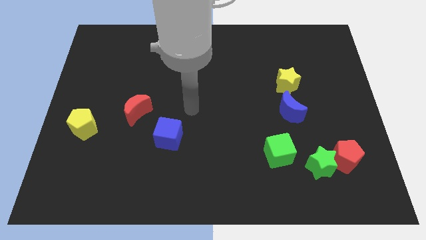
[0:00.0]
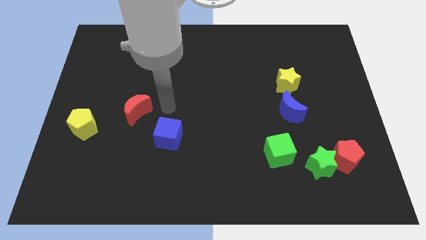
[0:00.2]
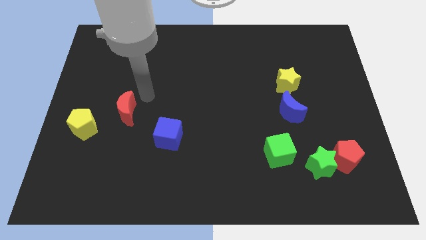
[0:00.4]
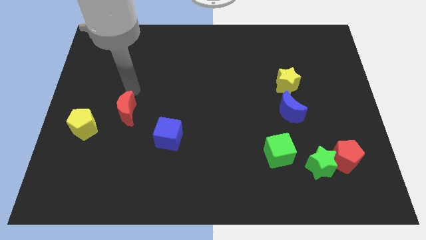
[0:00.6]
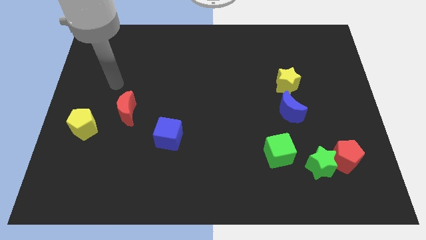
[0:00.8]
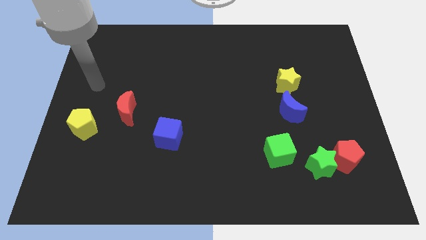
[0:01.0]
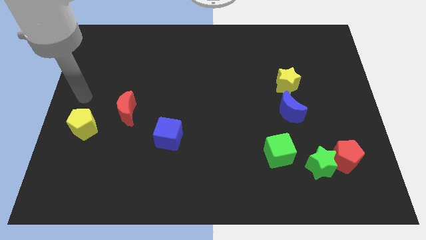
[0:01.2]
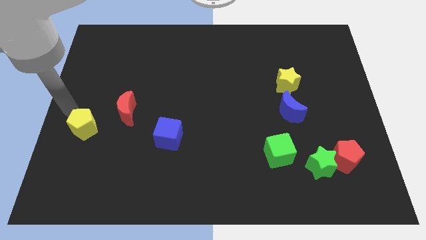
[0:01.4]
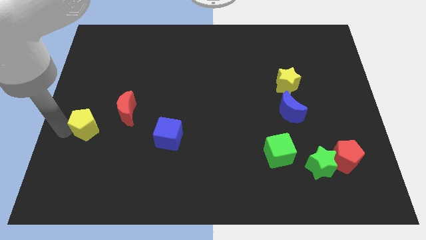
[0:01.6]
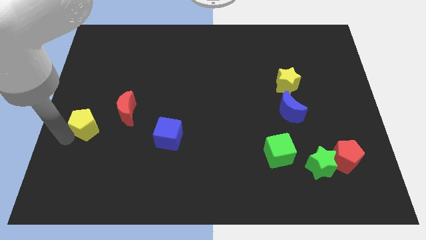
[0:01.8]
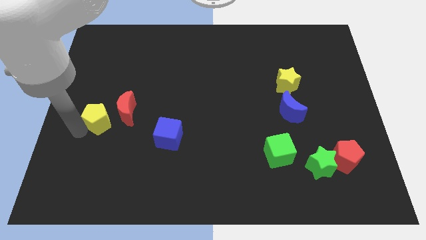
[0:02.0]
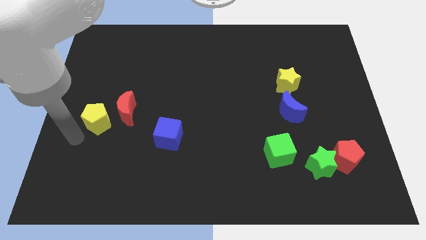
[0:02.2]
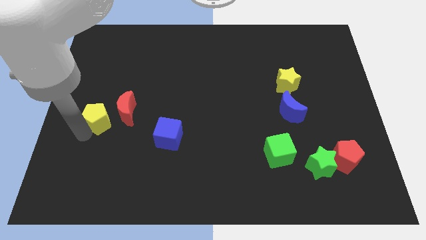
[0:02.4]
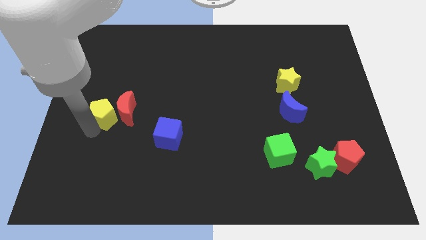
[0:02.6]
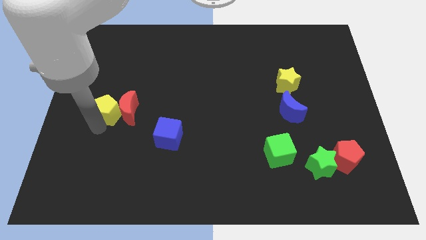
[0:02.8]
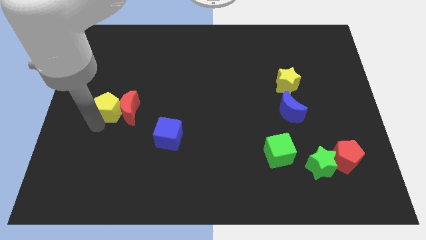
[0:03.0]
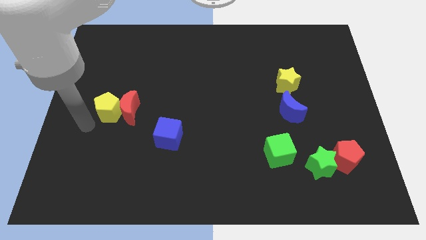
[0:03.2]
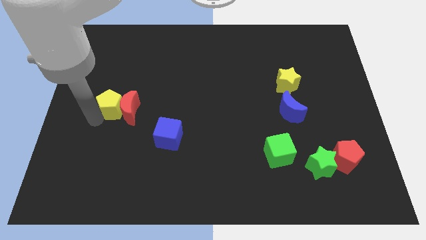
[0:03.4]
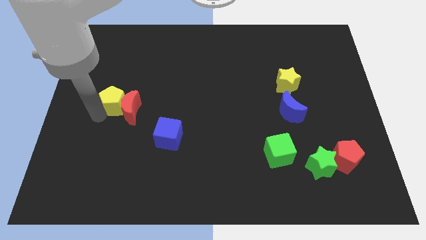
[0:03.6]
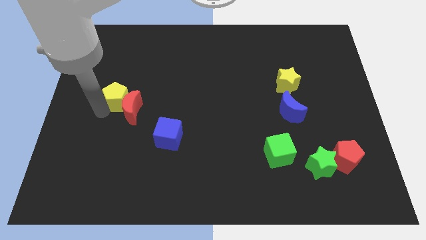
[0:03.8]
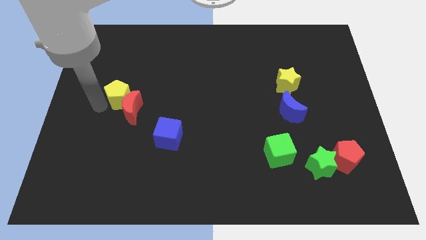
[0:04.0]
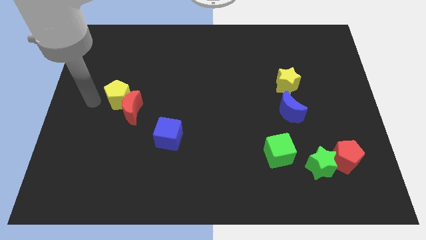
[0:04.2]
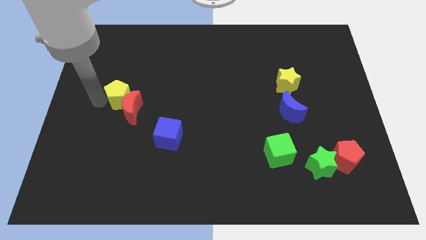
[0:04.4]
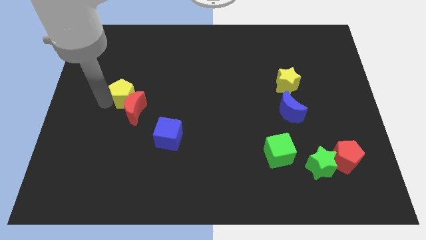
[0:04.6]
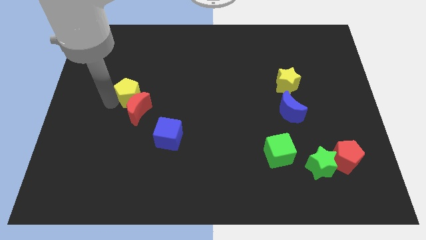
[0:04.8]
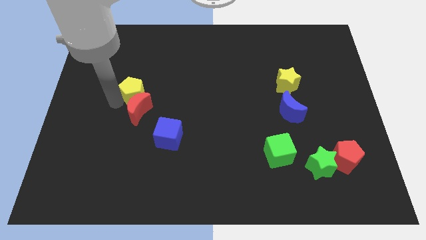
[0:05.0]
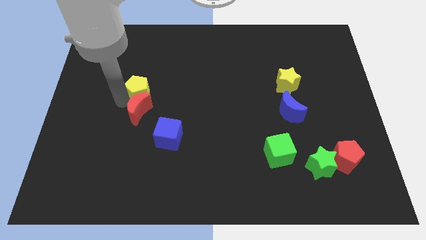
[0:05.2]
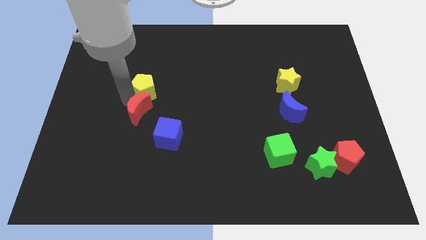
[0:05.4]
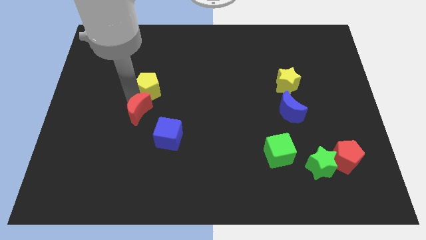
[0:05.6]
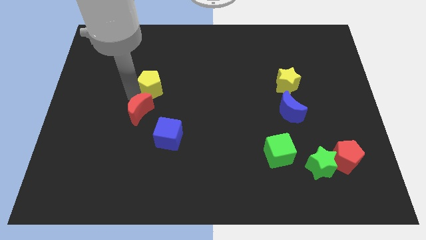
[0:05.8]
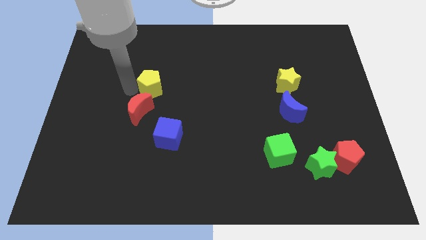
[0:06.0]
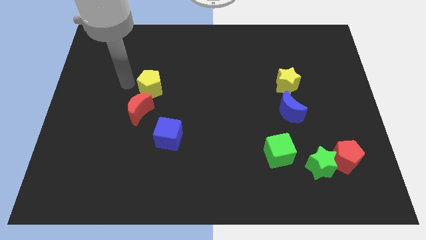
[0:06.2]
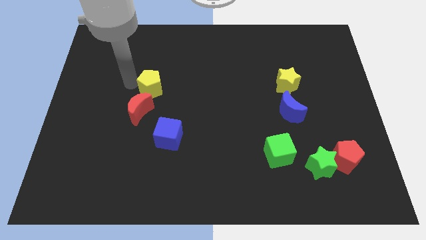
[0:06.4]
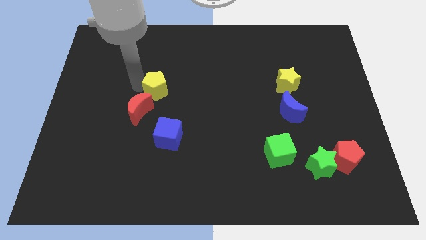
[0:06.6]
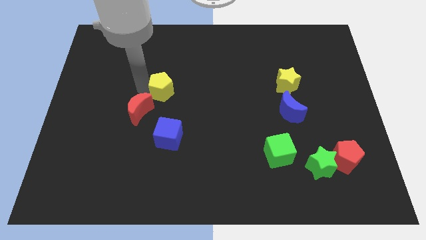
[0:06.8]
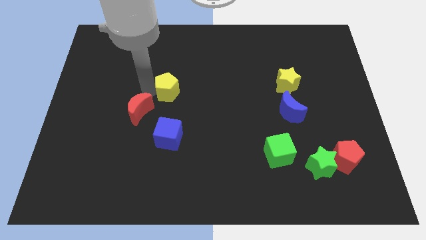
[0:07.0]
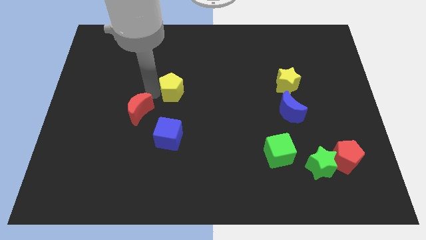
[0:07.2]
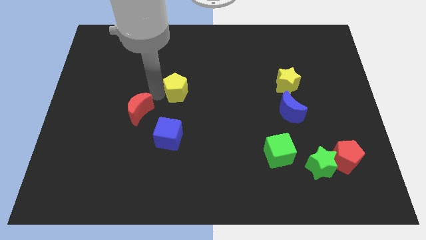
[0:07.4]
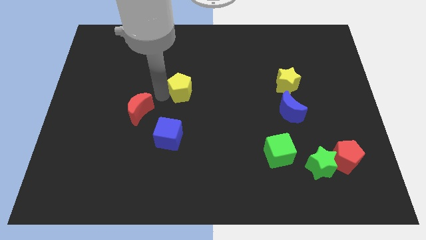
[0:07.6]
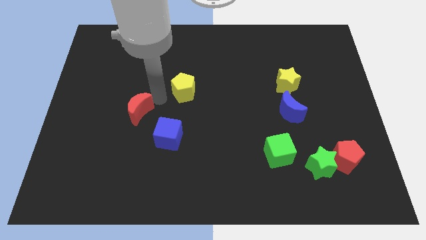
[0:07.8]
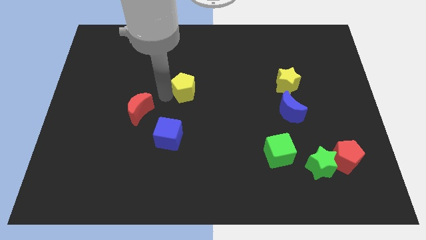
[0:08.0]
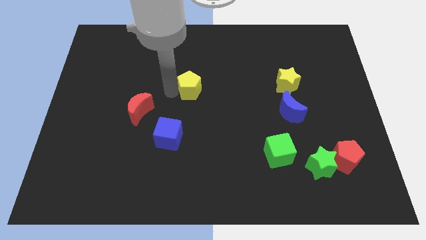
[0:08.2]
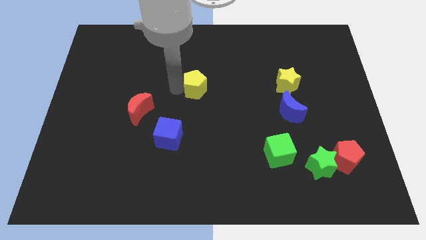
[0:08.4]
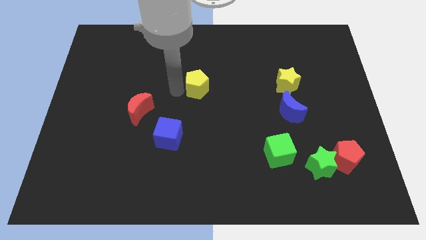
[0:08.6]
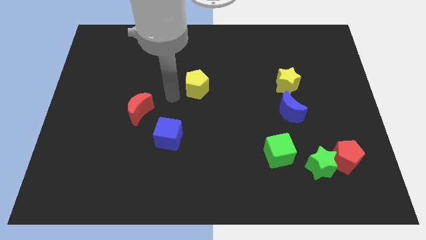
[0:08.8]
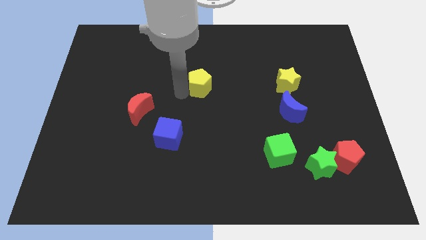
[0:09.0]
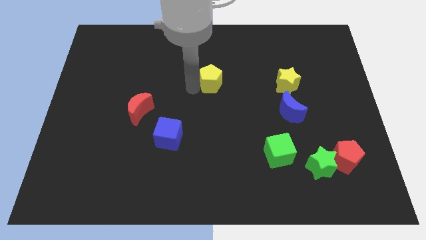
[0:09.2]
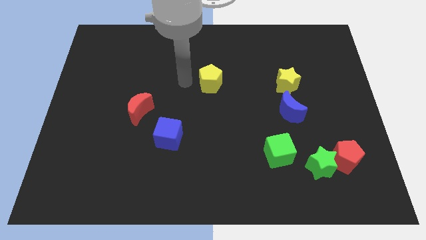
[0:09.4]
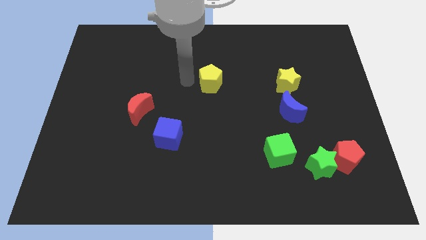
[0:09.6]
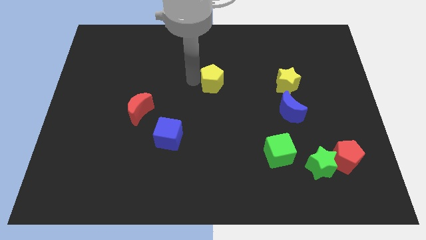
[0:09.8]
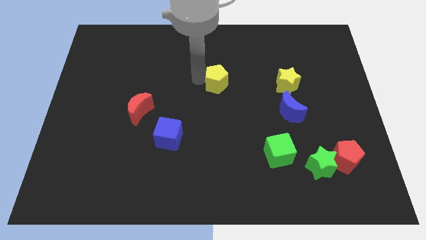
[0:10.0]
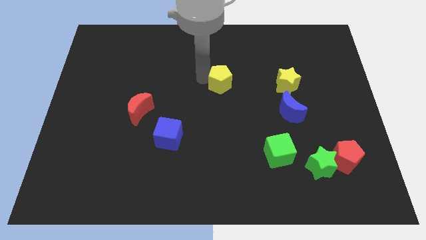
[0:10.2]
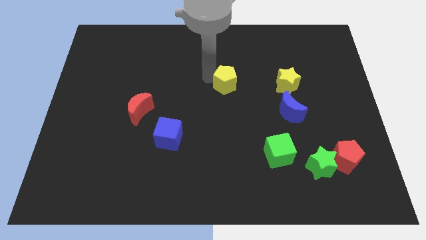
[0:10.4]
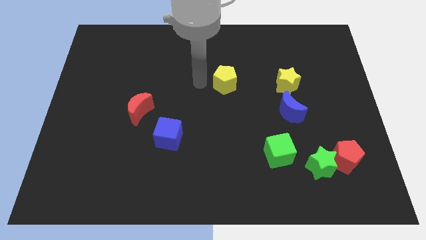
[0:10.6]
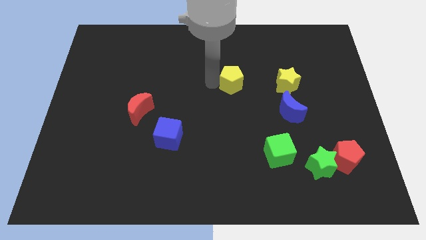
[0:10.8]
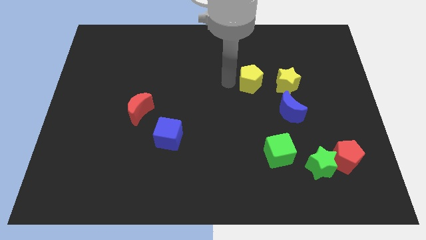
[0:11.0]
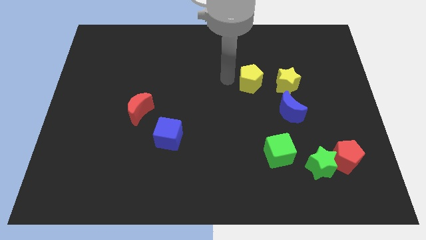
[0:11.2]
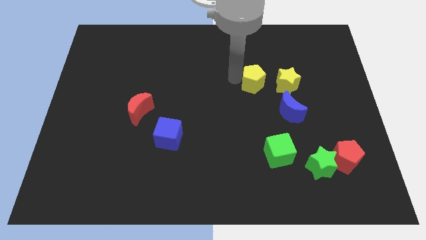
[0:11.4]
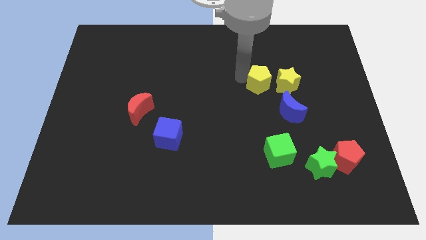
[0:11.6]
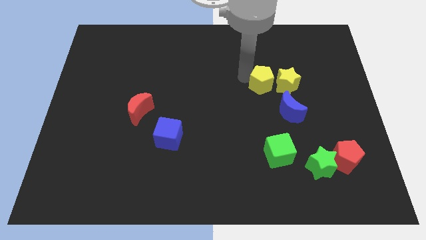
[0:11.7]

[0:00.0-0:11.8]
move the yellow pentagon next to the yellow star

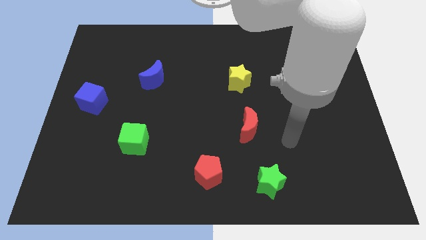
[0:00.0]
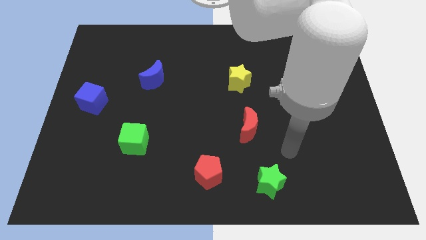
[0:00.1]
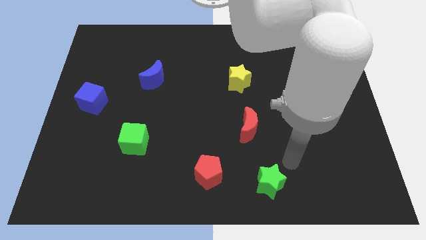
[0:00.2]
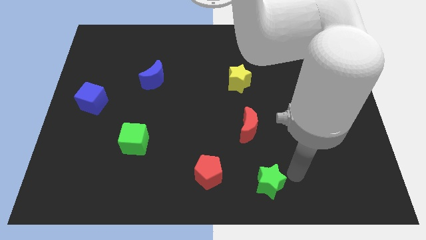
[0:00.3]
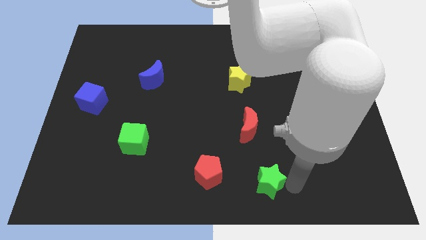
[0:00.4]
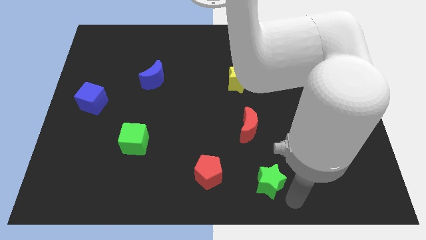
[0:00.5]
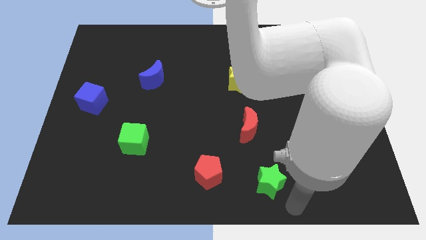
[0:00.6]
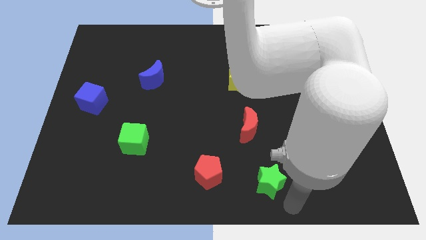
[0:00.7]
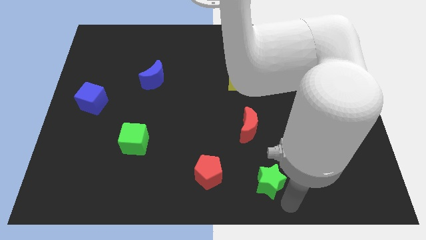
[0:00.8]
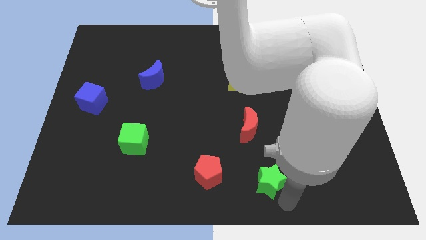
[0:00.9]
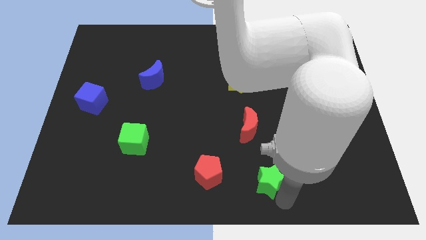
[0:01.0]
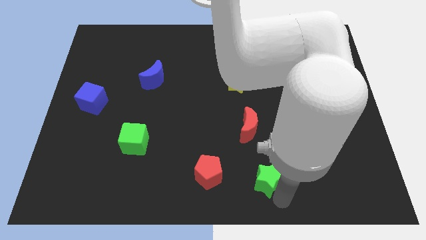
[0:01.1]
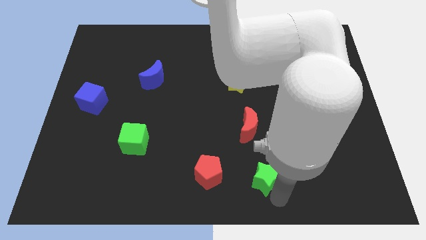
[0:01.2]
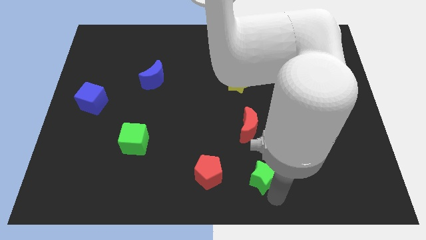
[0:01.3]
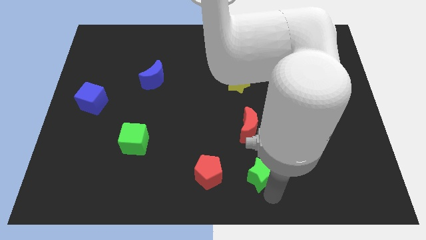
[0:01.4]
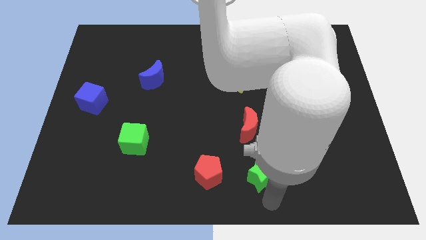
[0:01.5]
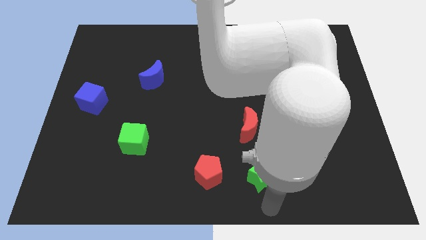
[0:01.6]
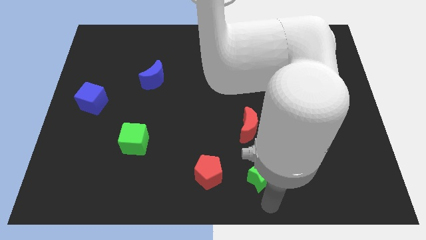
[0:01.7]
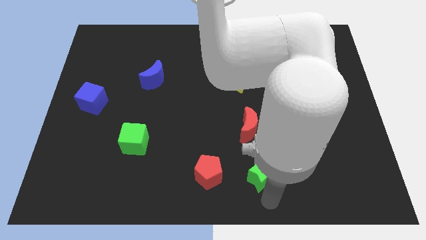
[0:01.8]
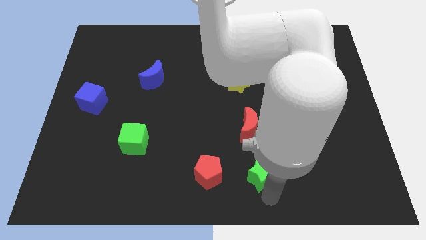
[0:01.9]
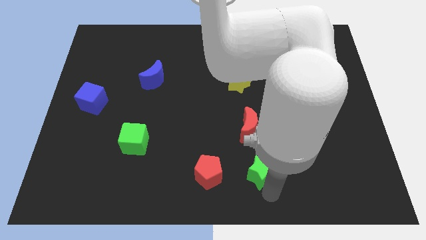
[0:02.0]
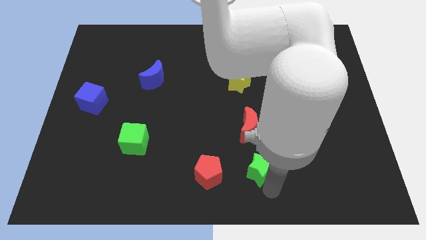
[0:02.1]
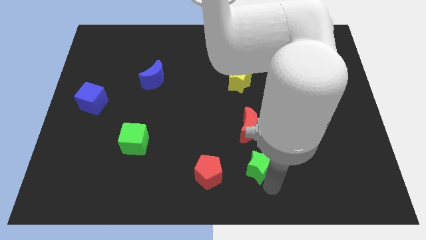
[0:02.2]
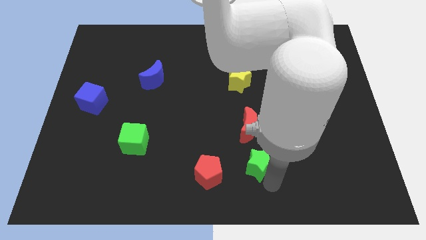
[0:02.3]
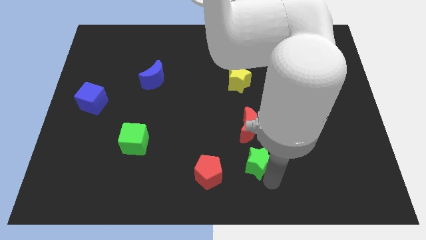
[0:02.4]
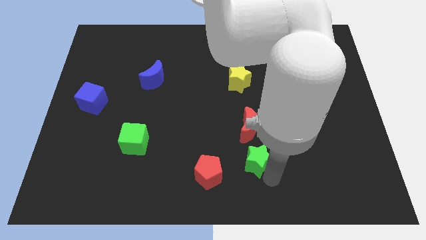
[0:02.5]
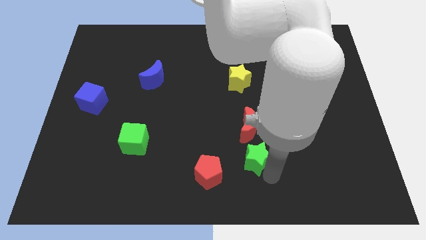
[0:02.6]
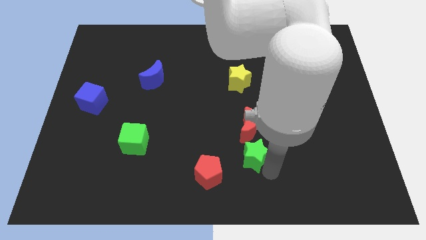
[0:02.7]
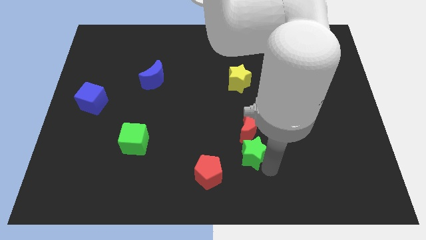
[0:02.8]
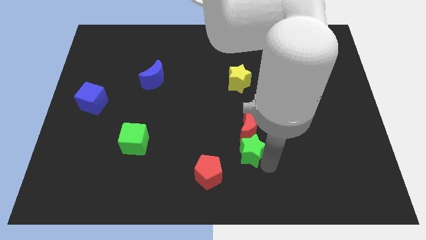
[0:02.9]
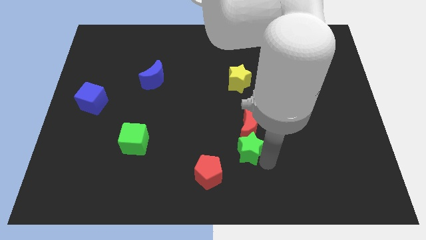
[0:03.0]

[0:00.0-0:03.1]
put the green star towards the red moon
